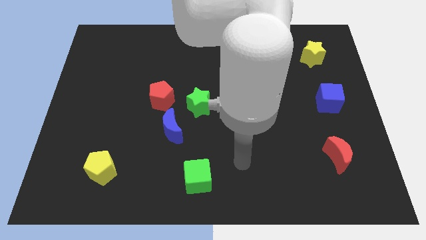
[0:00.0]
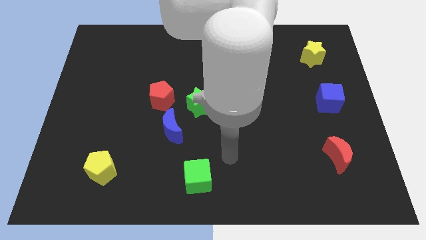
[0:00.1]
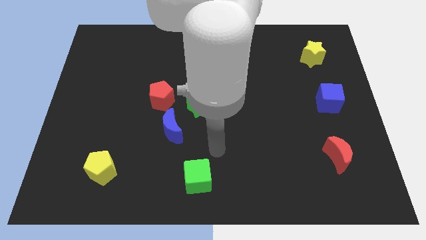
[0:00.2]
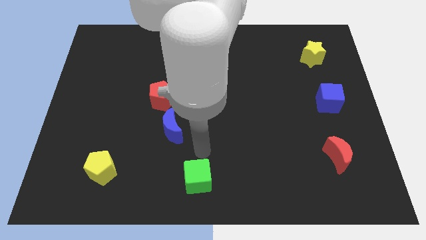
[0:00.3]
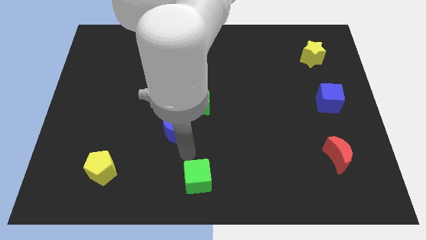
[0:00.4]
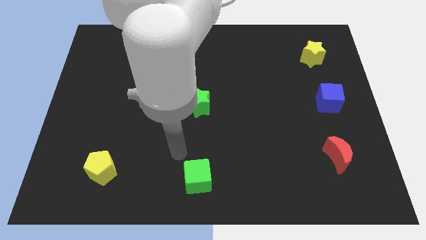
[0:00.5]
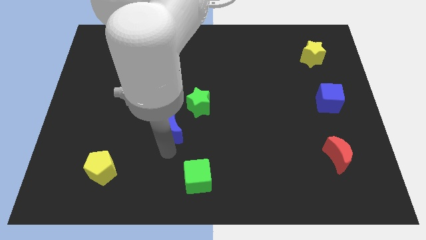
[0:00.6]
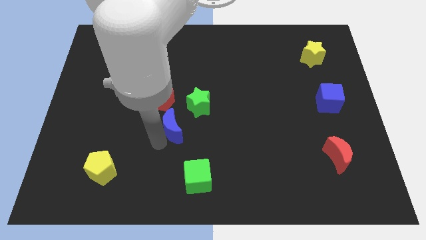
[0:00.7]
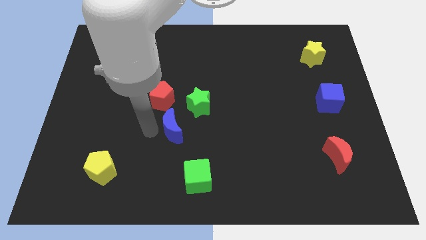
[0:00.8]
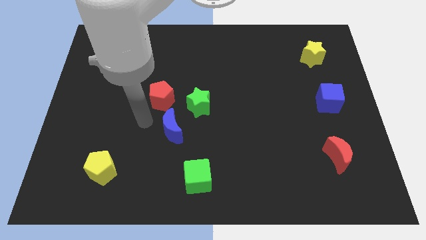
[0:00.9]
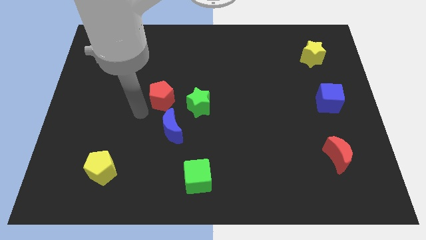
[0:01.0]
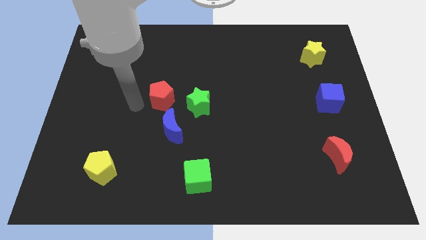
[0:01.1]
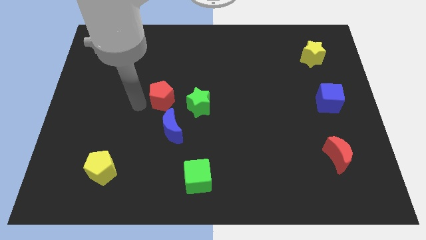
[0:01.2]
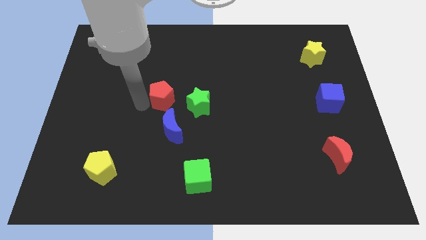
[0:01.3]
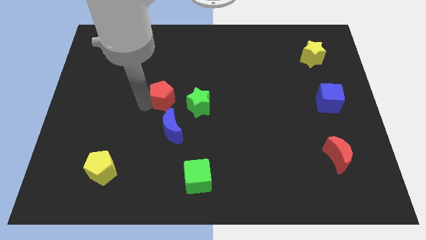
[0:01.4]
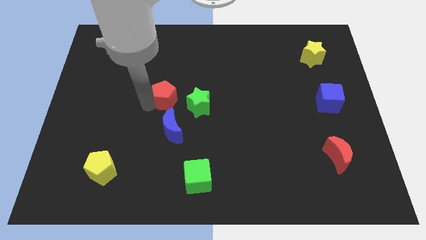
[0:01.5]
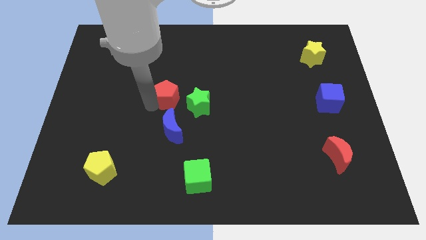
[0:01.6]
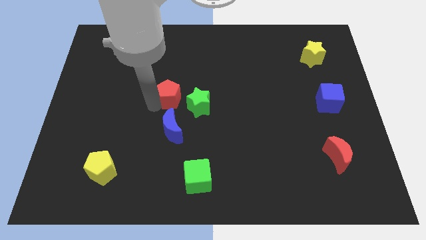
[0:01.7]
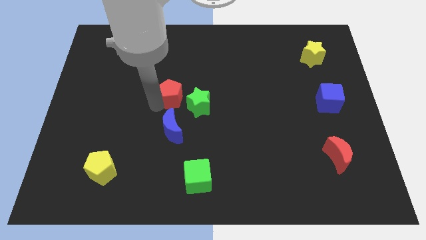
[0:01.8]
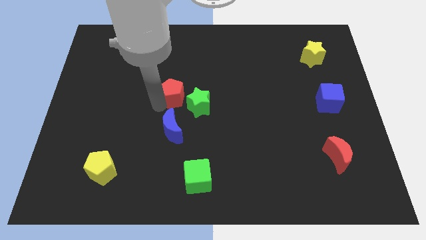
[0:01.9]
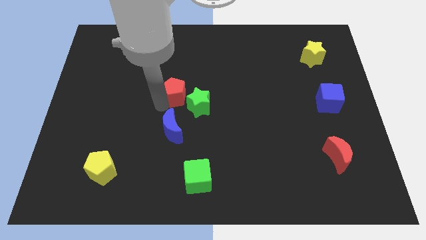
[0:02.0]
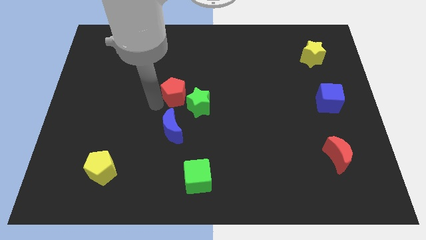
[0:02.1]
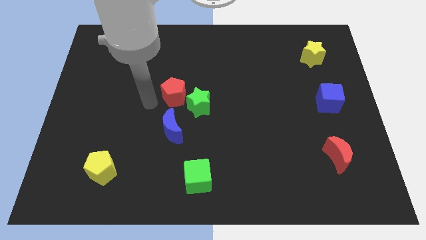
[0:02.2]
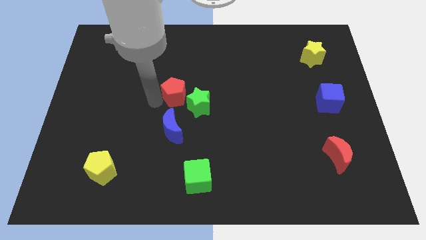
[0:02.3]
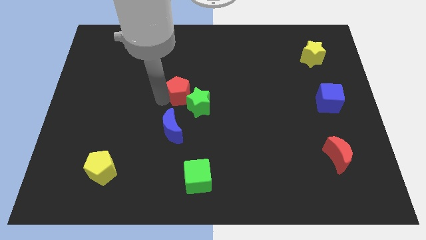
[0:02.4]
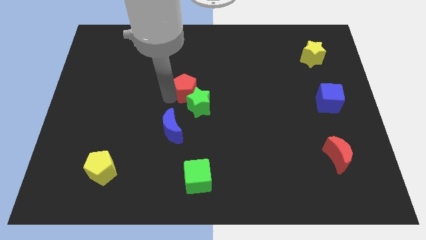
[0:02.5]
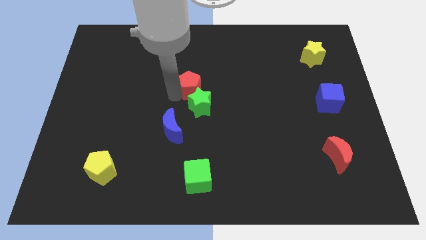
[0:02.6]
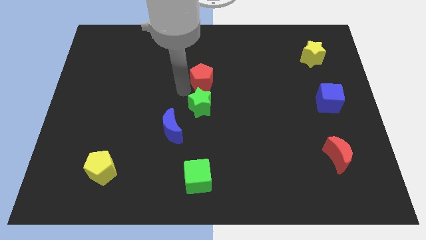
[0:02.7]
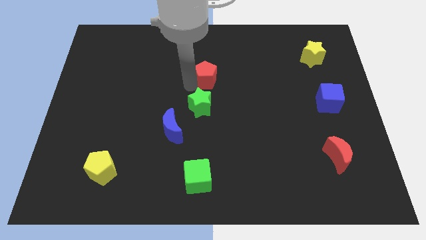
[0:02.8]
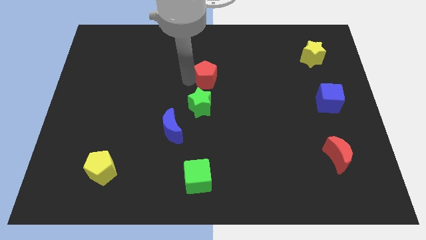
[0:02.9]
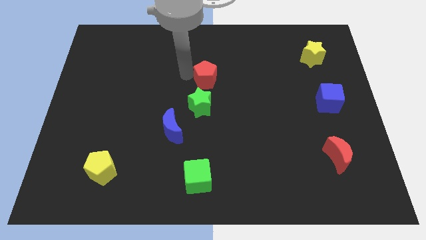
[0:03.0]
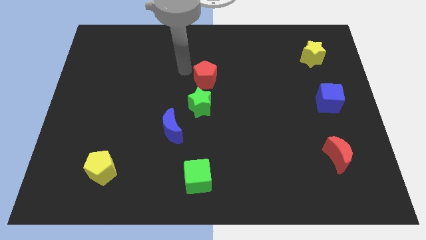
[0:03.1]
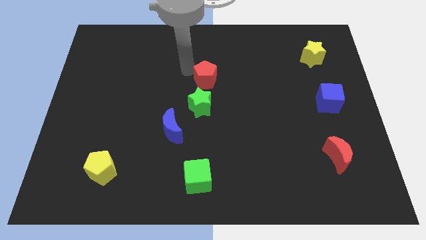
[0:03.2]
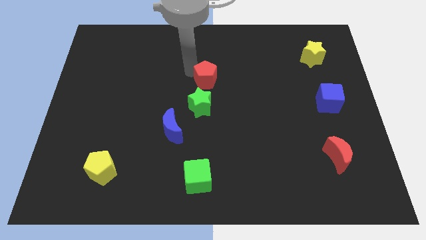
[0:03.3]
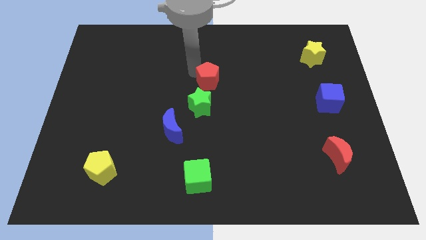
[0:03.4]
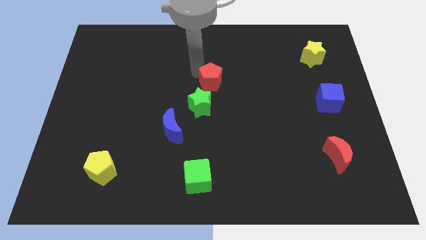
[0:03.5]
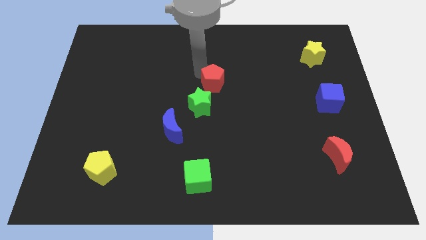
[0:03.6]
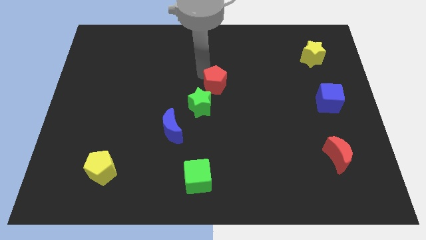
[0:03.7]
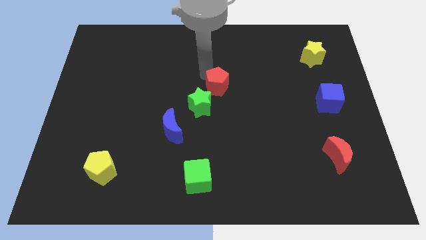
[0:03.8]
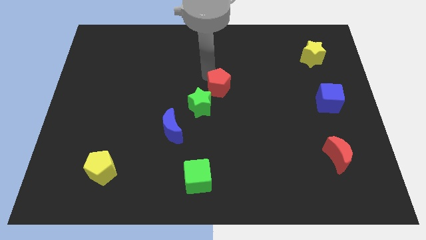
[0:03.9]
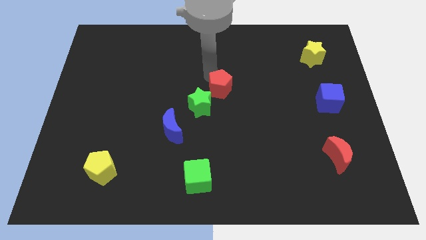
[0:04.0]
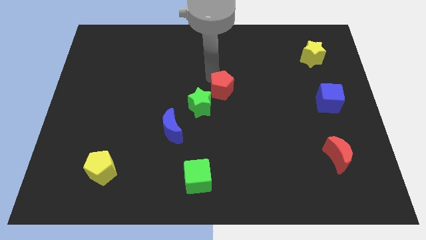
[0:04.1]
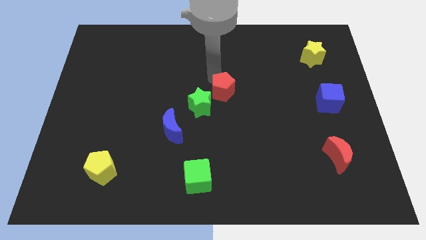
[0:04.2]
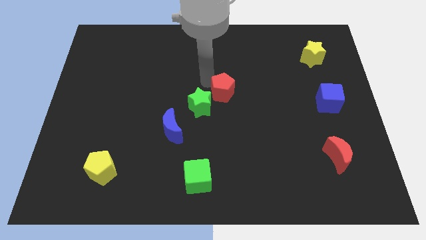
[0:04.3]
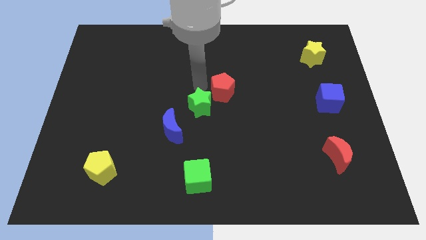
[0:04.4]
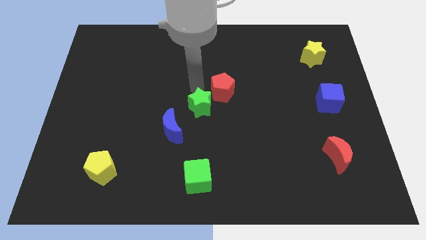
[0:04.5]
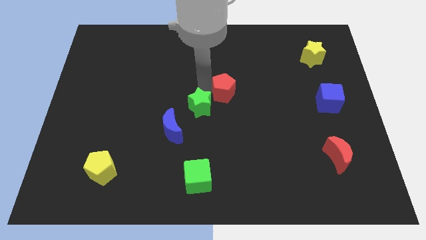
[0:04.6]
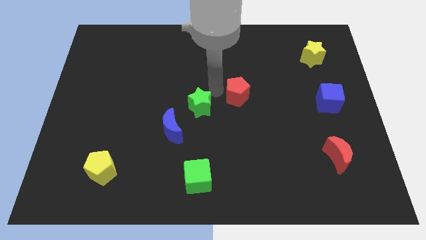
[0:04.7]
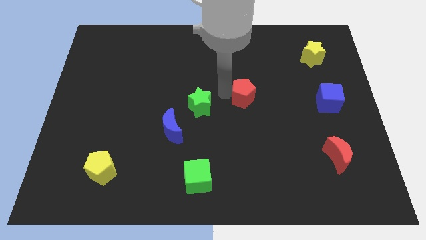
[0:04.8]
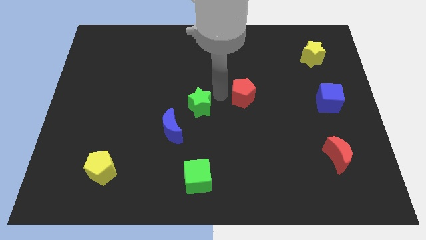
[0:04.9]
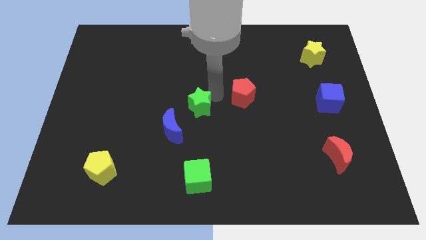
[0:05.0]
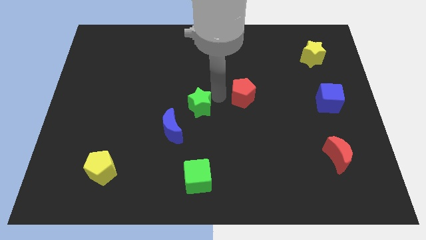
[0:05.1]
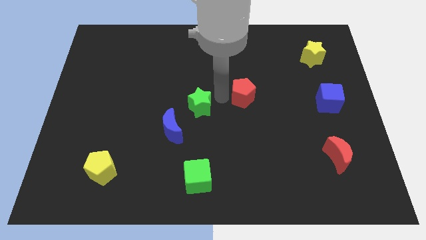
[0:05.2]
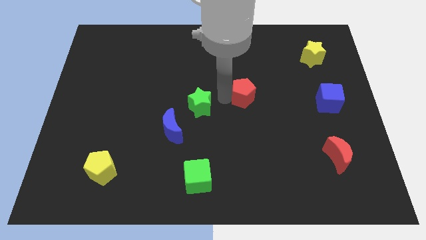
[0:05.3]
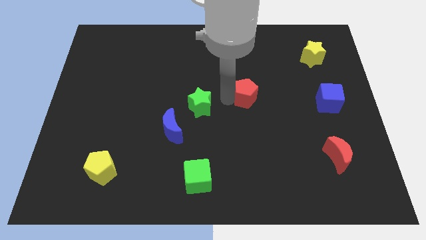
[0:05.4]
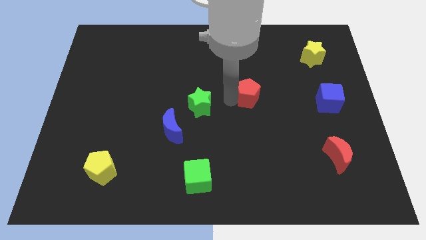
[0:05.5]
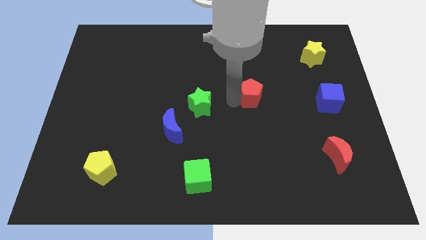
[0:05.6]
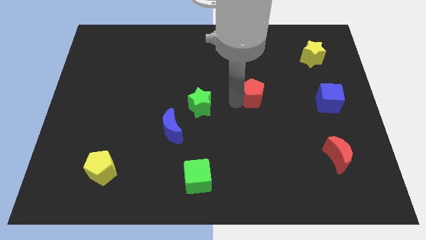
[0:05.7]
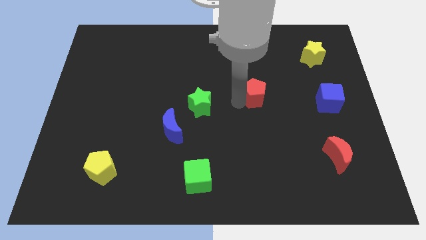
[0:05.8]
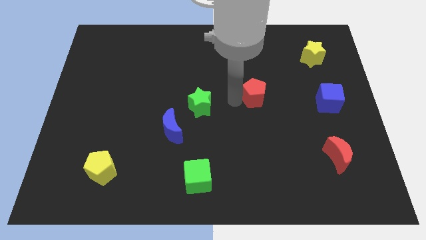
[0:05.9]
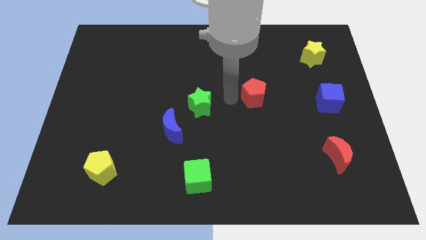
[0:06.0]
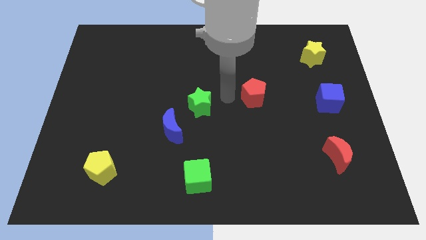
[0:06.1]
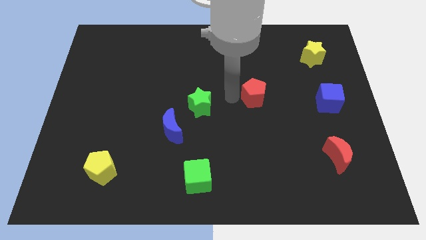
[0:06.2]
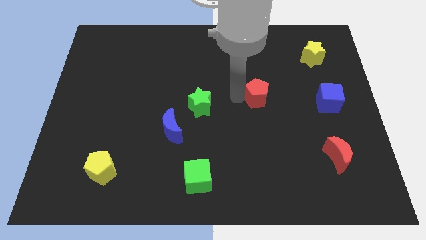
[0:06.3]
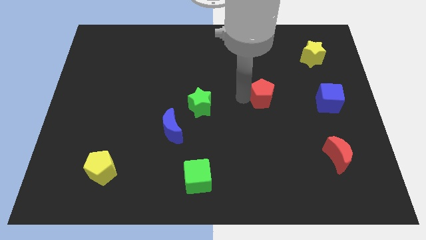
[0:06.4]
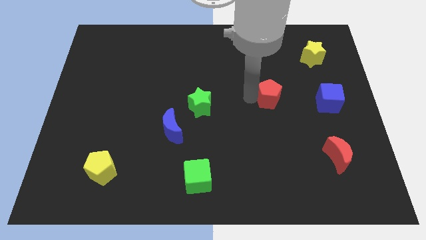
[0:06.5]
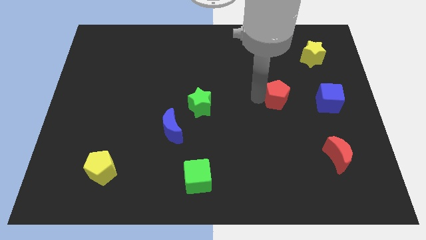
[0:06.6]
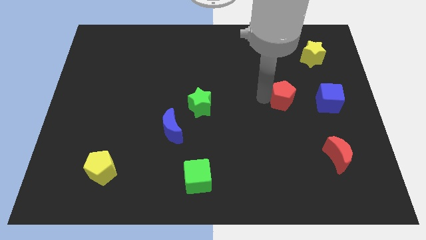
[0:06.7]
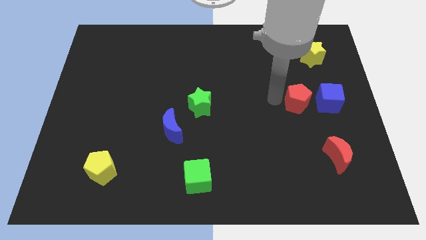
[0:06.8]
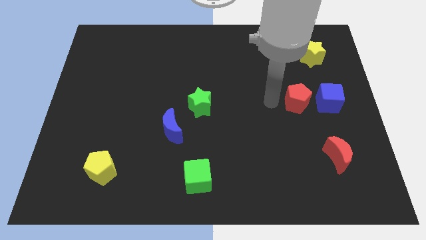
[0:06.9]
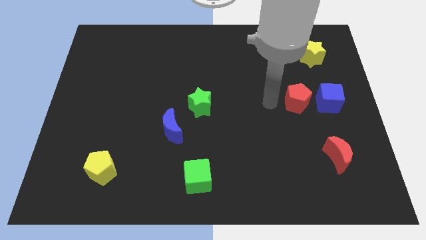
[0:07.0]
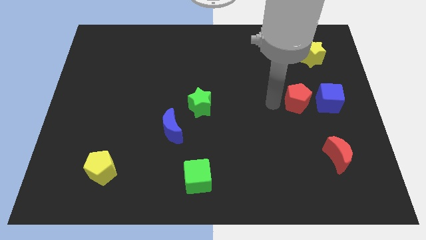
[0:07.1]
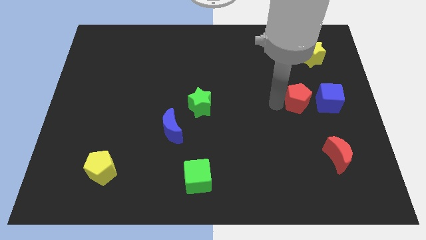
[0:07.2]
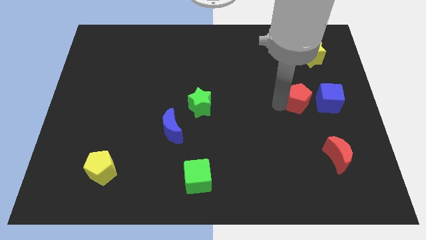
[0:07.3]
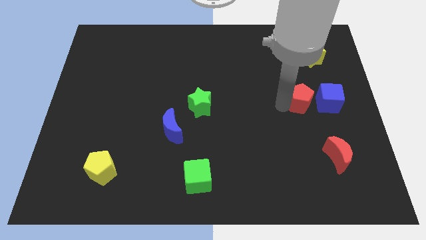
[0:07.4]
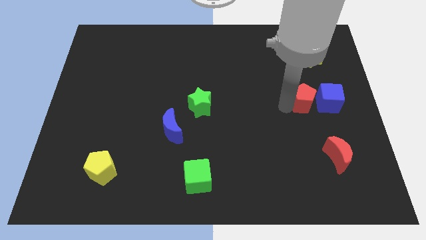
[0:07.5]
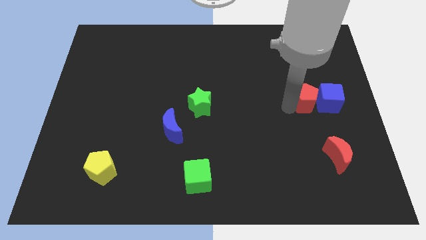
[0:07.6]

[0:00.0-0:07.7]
slide the red pentagon towards the blue cube
